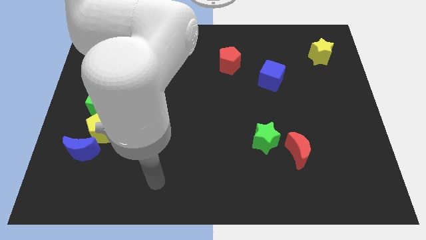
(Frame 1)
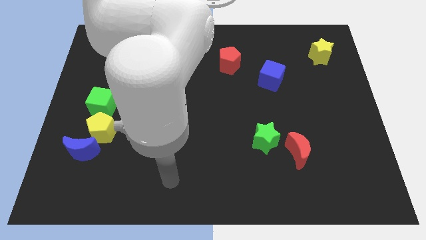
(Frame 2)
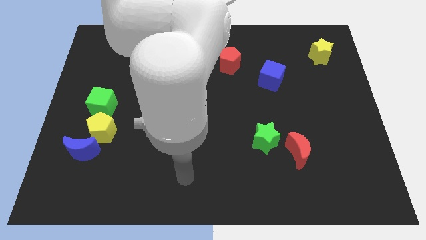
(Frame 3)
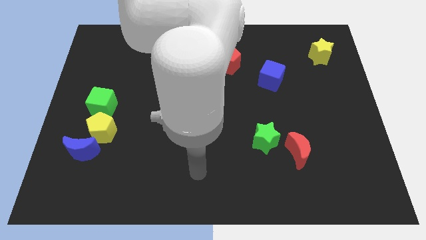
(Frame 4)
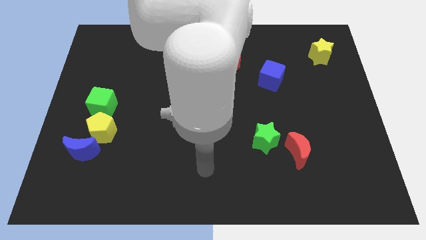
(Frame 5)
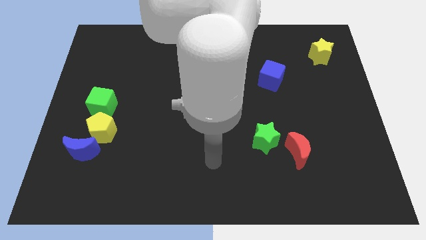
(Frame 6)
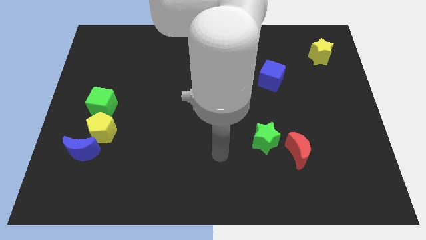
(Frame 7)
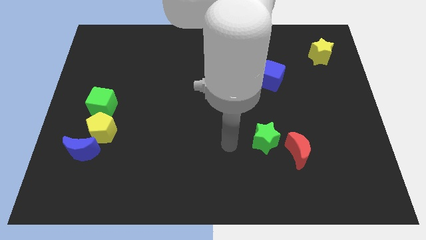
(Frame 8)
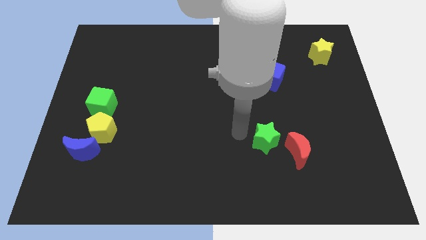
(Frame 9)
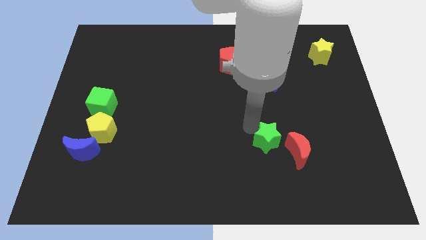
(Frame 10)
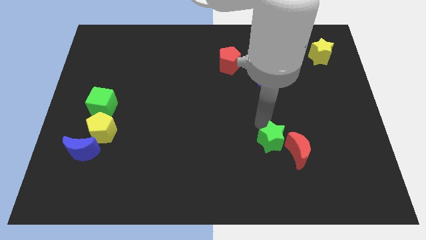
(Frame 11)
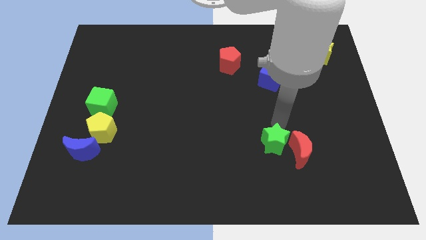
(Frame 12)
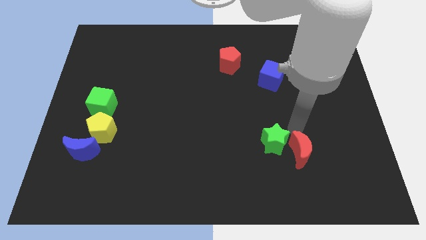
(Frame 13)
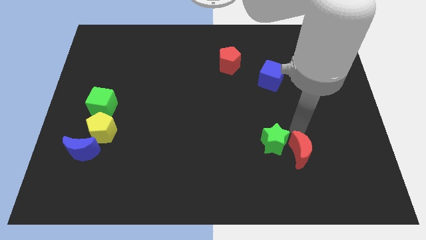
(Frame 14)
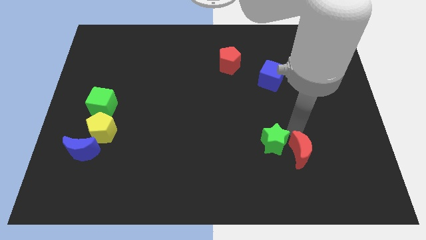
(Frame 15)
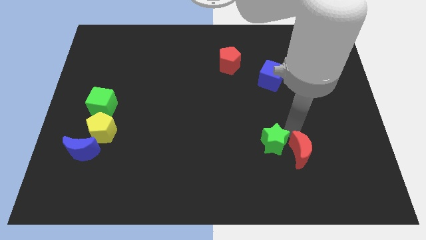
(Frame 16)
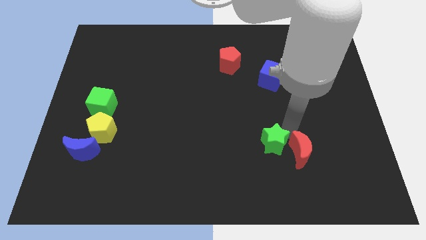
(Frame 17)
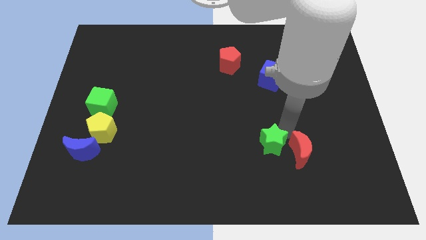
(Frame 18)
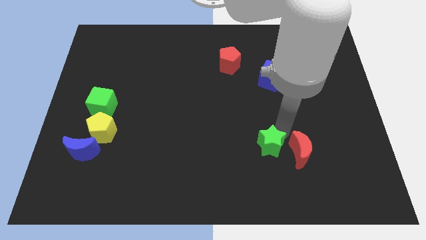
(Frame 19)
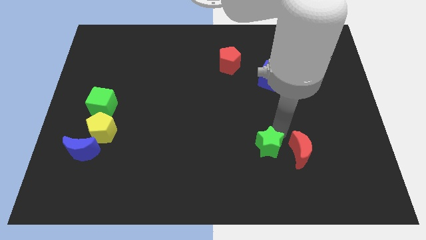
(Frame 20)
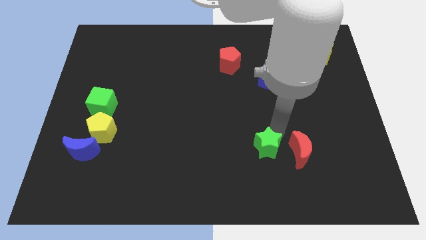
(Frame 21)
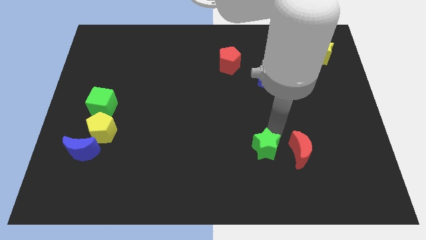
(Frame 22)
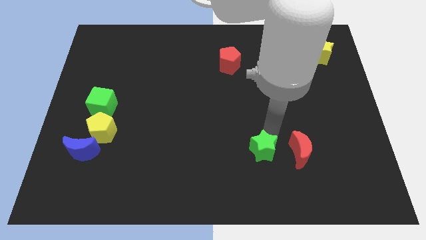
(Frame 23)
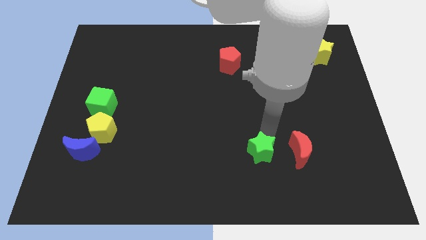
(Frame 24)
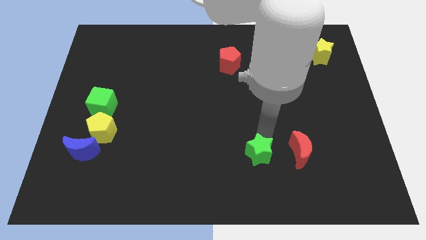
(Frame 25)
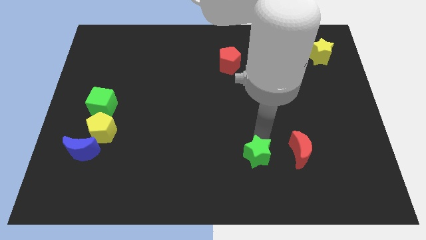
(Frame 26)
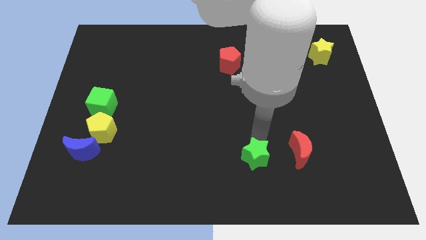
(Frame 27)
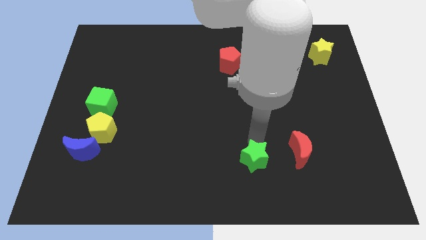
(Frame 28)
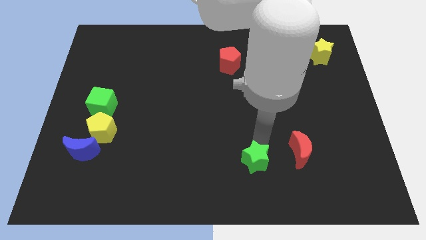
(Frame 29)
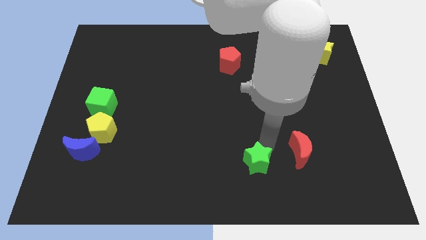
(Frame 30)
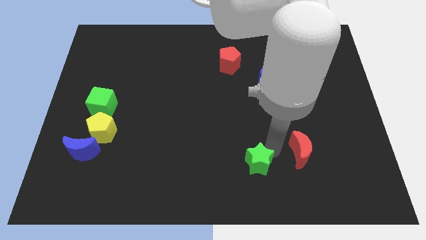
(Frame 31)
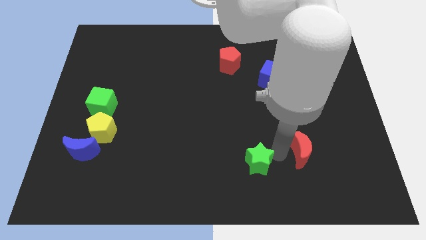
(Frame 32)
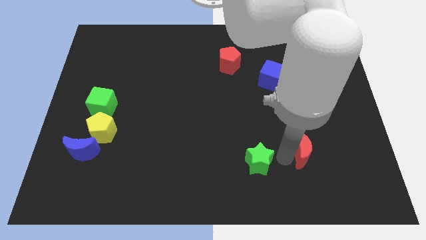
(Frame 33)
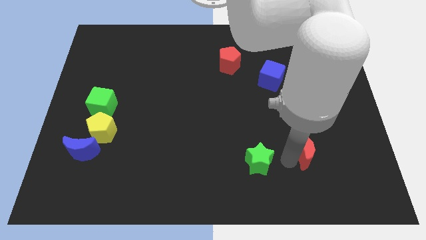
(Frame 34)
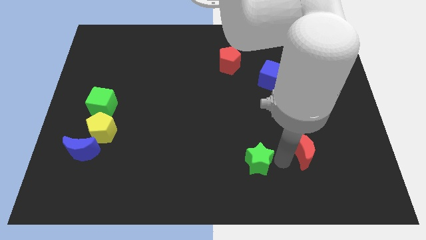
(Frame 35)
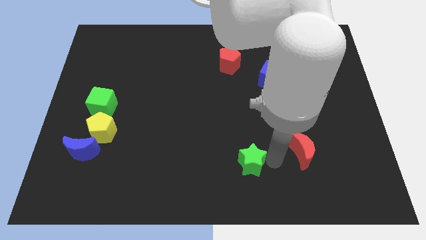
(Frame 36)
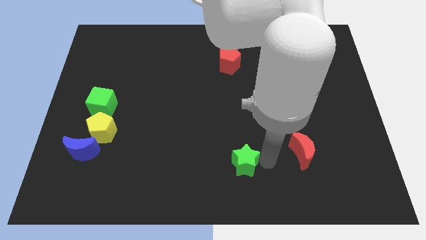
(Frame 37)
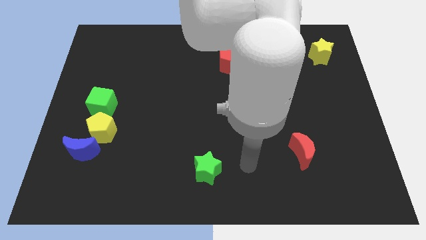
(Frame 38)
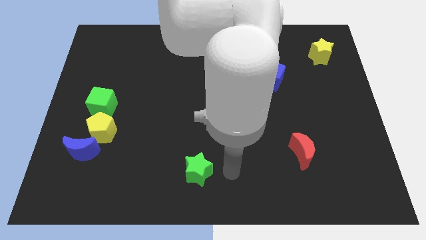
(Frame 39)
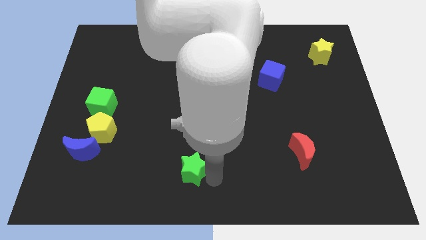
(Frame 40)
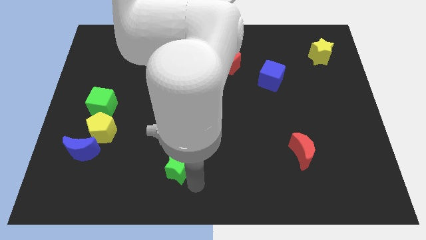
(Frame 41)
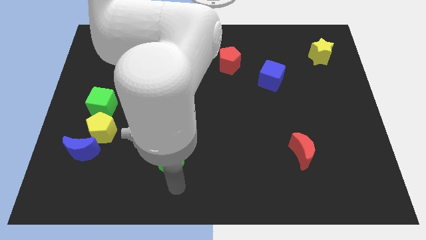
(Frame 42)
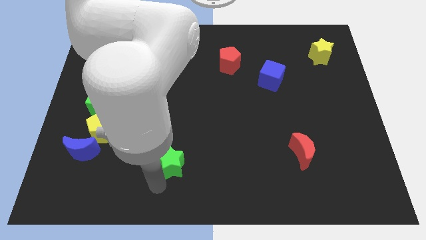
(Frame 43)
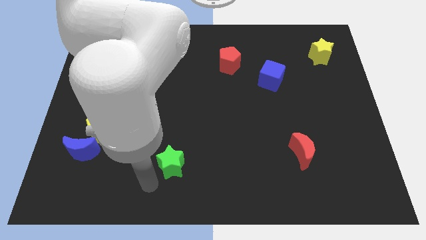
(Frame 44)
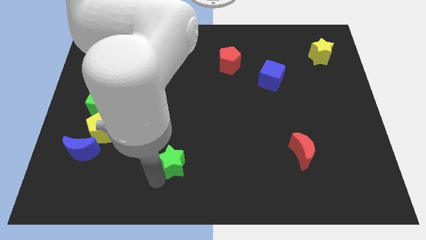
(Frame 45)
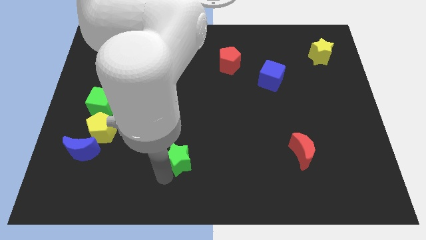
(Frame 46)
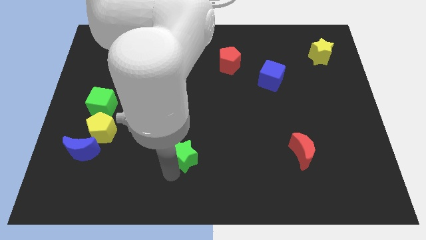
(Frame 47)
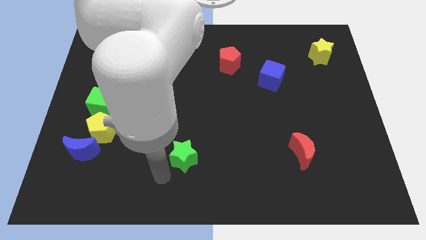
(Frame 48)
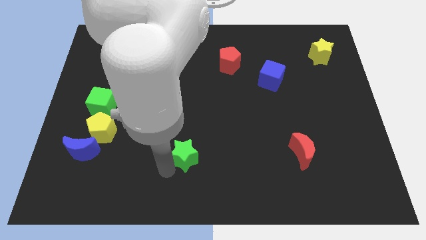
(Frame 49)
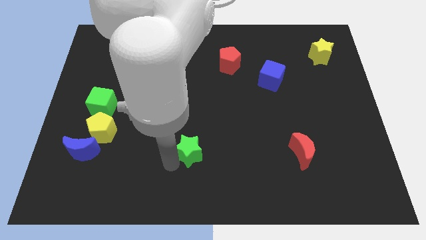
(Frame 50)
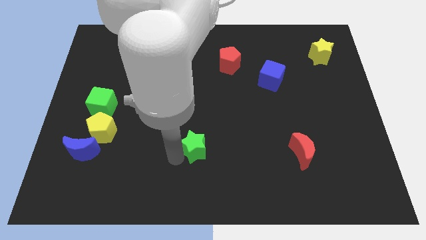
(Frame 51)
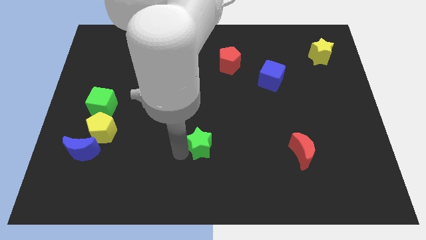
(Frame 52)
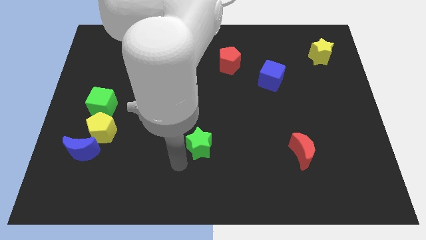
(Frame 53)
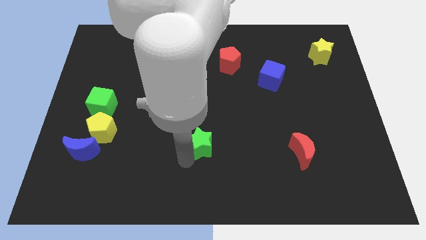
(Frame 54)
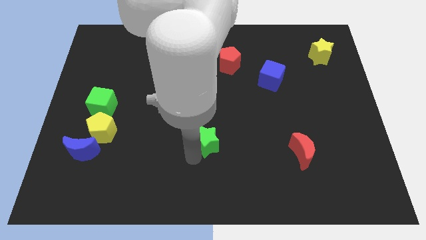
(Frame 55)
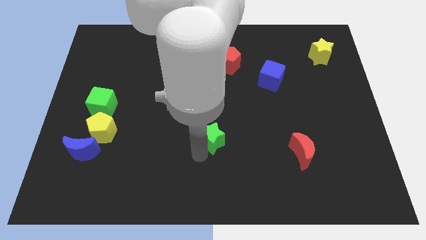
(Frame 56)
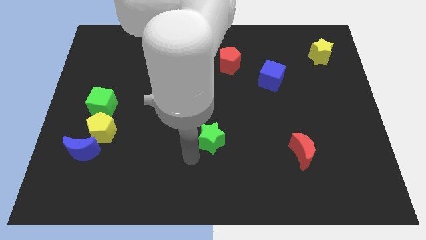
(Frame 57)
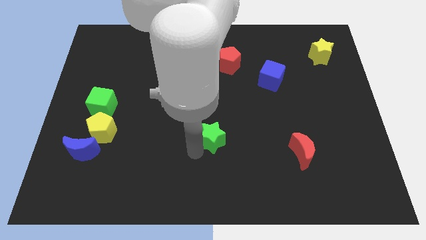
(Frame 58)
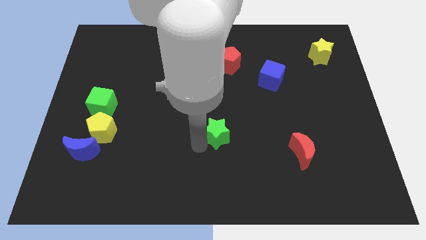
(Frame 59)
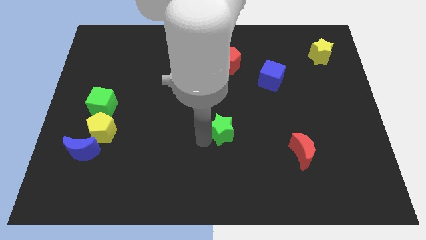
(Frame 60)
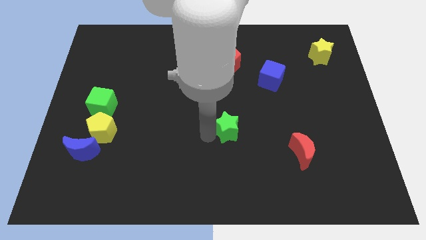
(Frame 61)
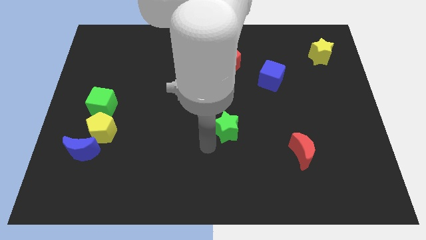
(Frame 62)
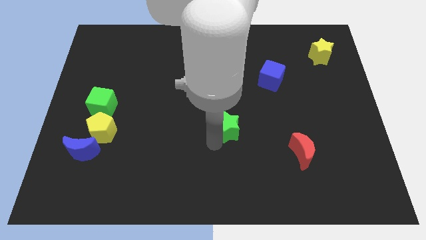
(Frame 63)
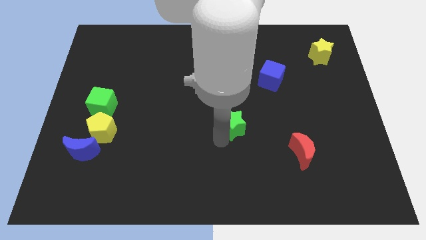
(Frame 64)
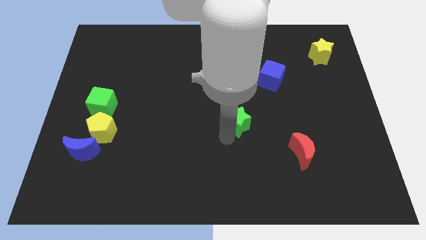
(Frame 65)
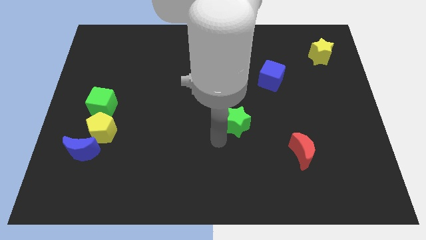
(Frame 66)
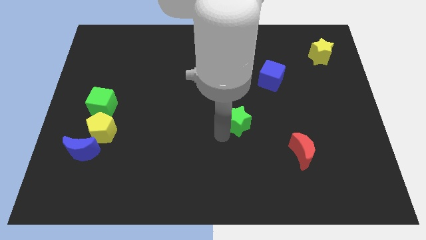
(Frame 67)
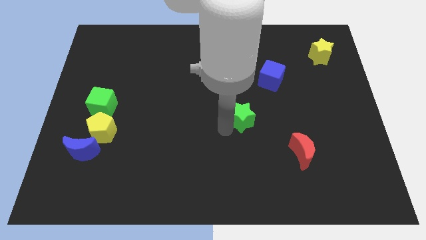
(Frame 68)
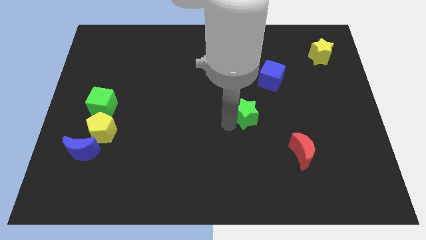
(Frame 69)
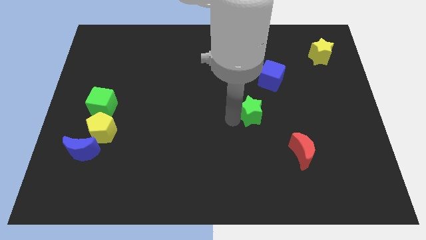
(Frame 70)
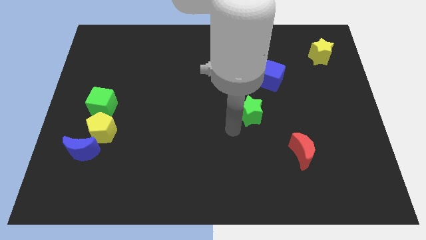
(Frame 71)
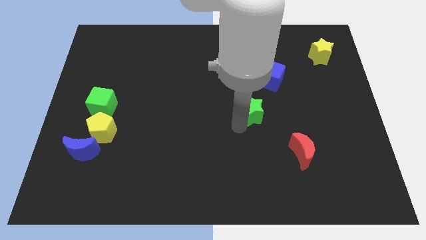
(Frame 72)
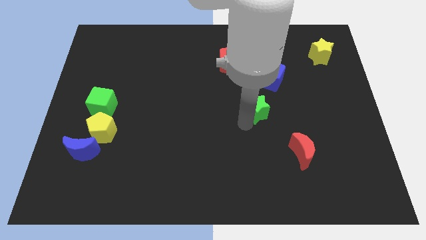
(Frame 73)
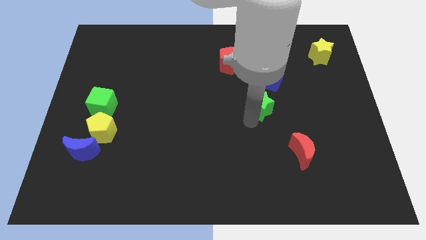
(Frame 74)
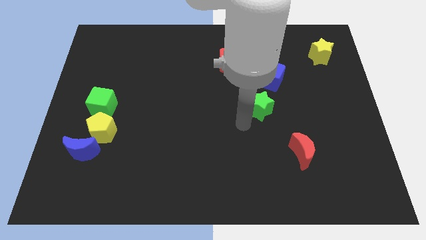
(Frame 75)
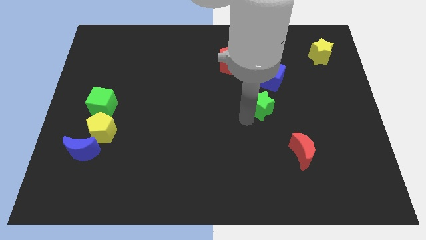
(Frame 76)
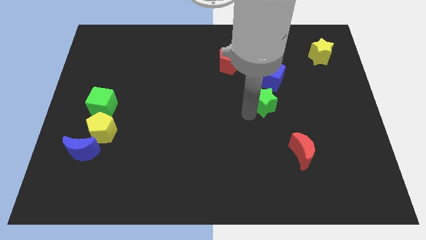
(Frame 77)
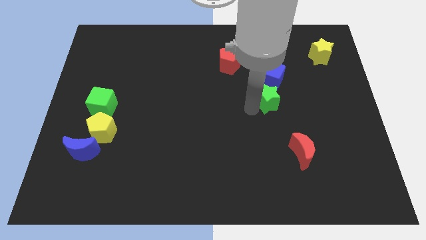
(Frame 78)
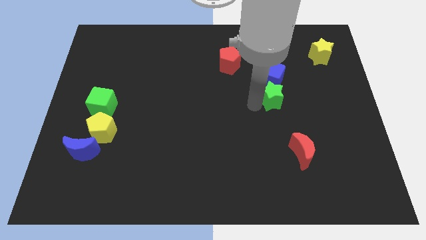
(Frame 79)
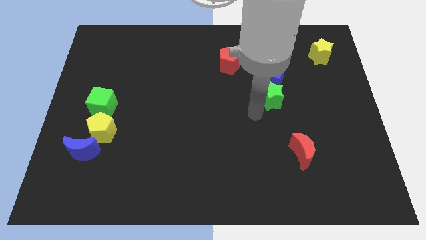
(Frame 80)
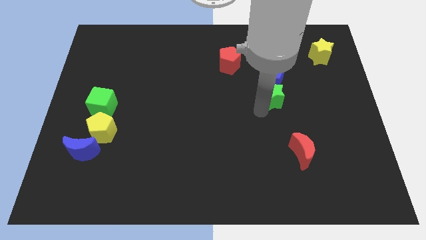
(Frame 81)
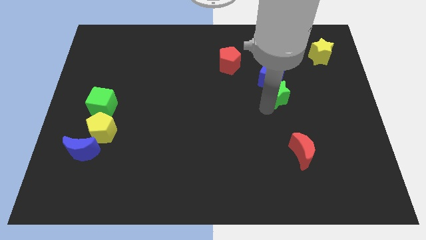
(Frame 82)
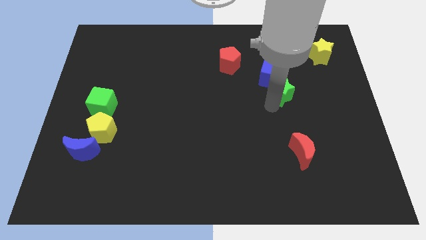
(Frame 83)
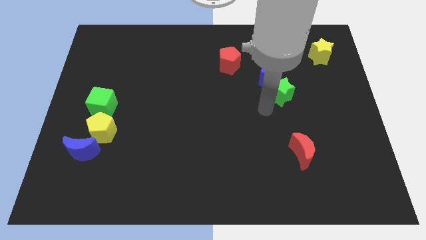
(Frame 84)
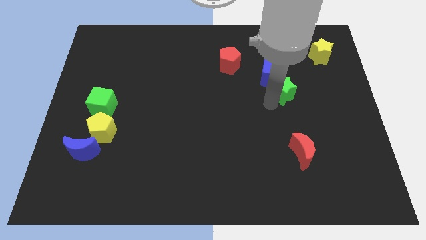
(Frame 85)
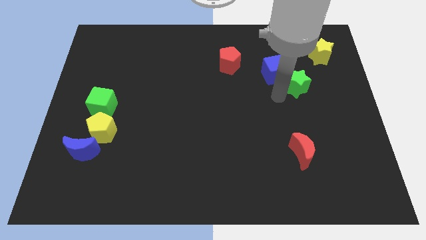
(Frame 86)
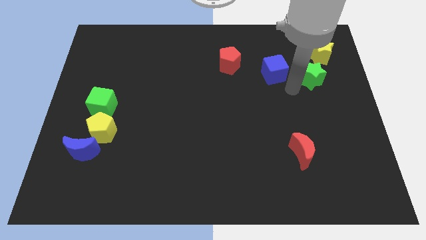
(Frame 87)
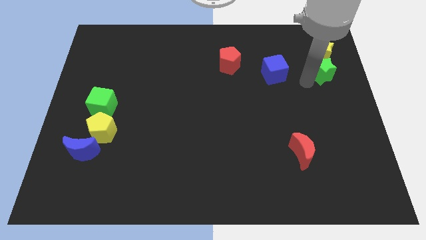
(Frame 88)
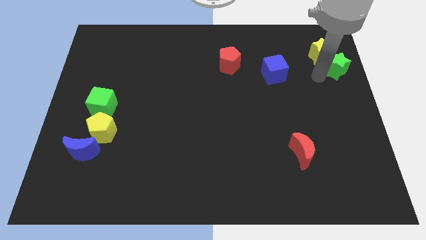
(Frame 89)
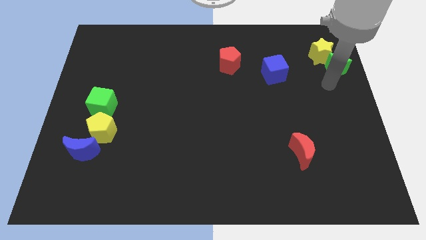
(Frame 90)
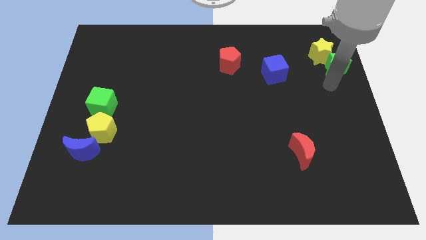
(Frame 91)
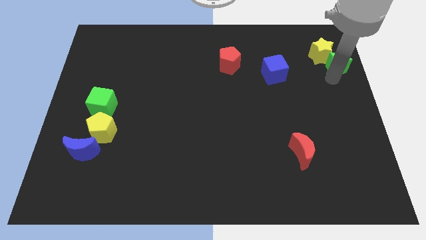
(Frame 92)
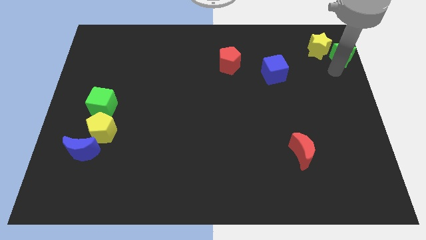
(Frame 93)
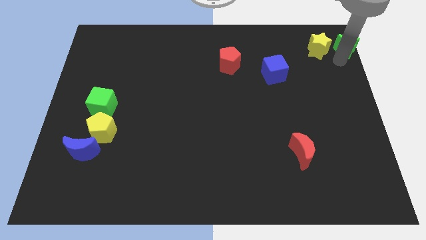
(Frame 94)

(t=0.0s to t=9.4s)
put the green star to the top right corner
